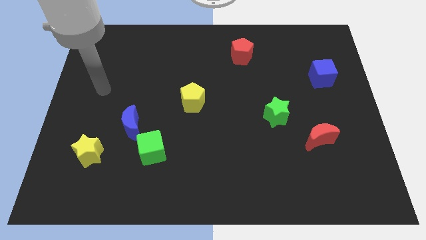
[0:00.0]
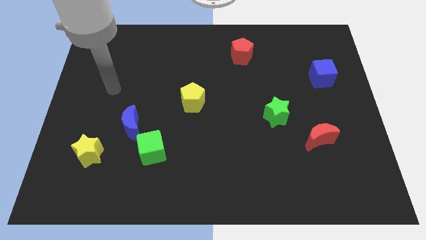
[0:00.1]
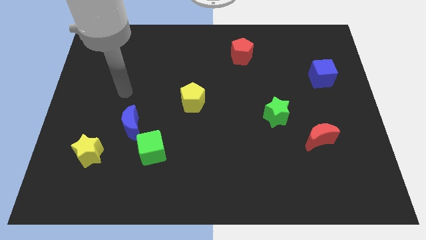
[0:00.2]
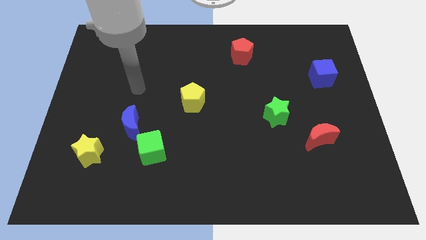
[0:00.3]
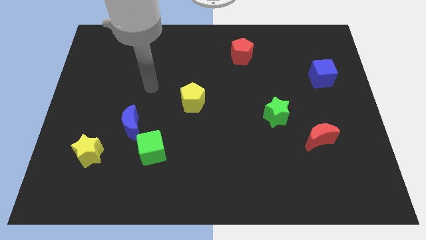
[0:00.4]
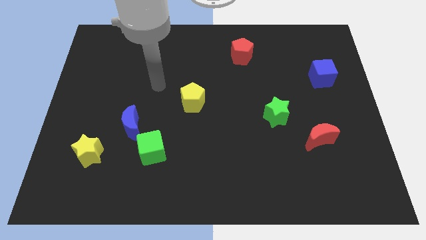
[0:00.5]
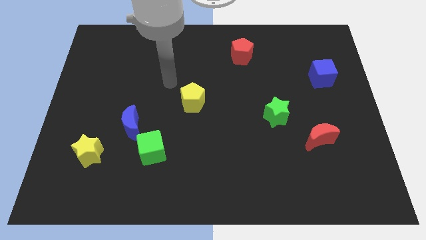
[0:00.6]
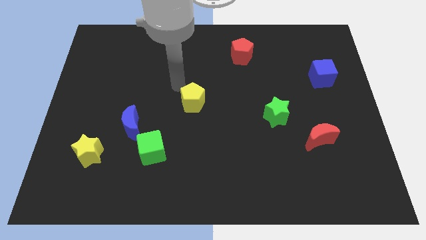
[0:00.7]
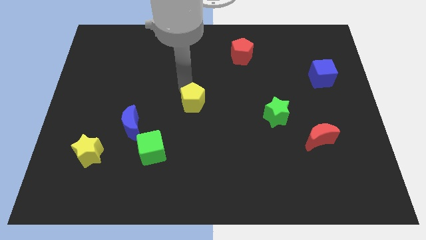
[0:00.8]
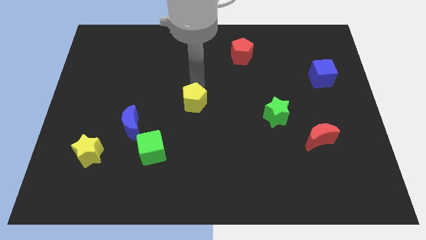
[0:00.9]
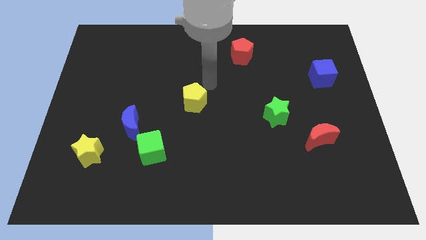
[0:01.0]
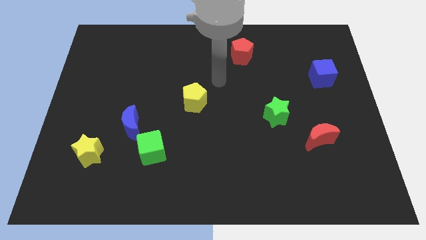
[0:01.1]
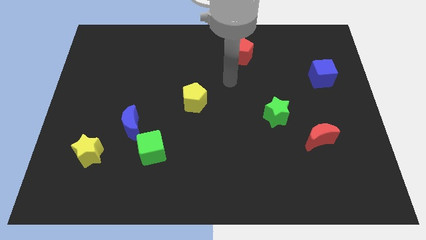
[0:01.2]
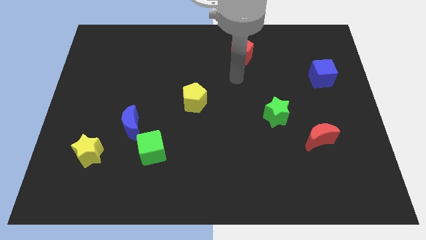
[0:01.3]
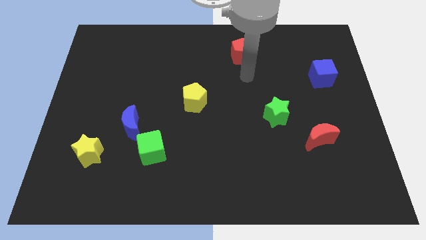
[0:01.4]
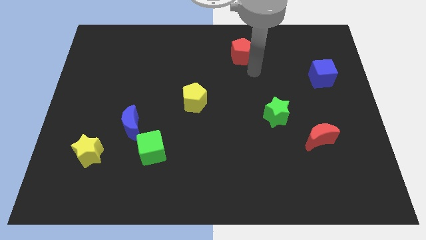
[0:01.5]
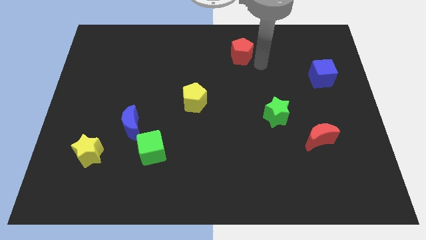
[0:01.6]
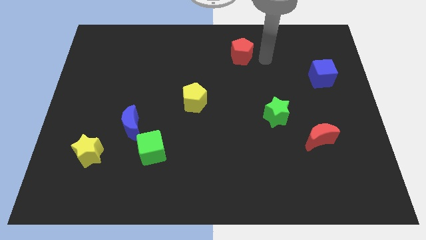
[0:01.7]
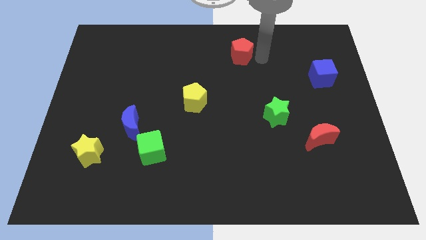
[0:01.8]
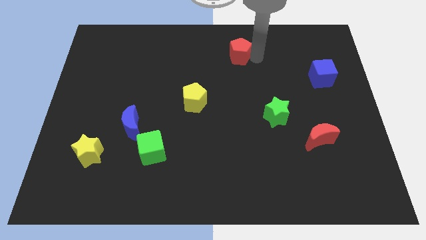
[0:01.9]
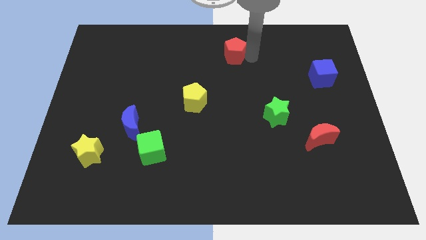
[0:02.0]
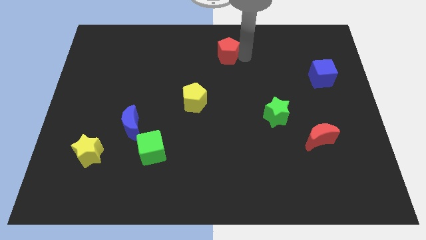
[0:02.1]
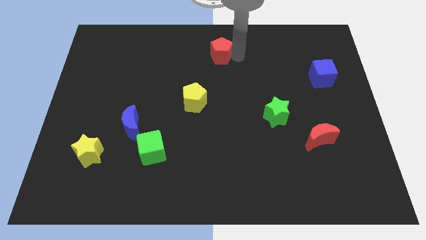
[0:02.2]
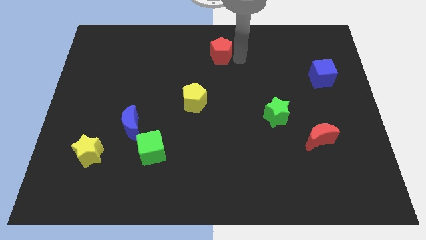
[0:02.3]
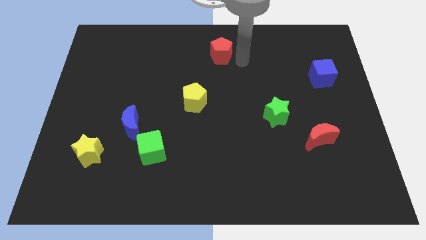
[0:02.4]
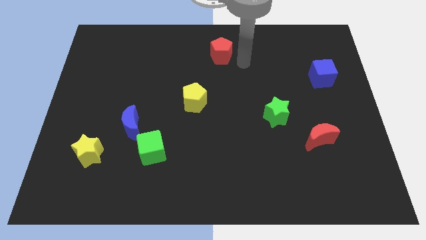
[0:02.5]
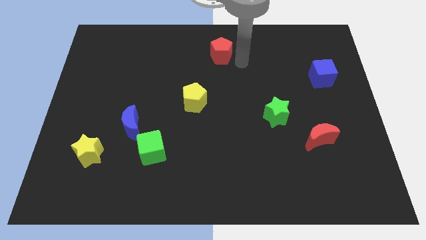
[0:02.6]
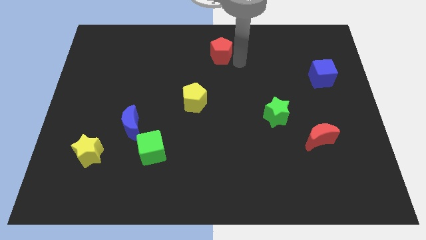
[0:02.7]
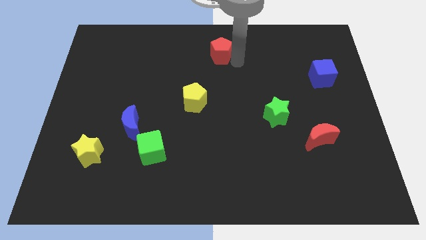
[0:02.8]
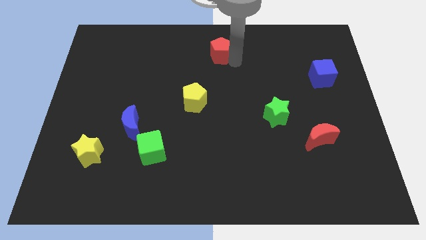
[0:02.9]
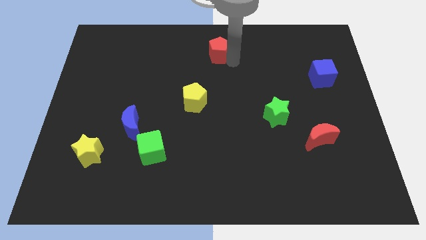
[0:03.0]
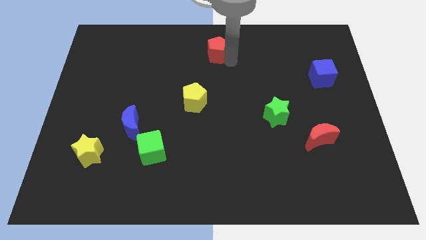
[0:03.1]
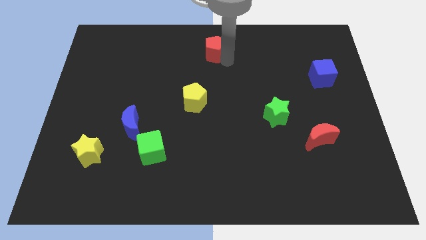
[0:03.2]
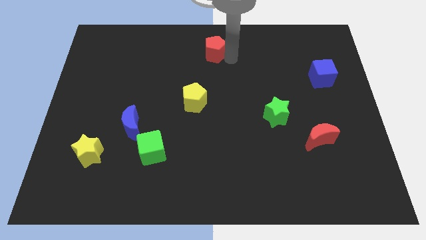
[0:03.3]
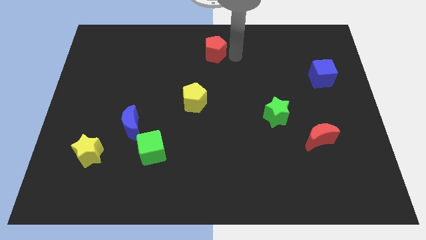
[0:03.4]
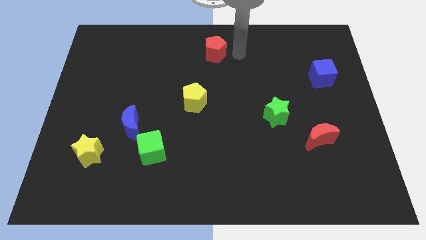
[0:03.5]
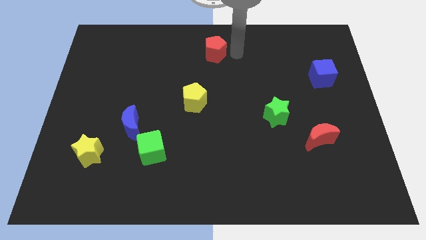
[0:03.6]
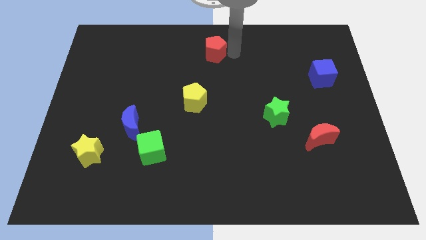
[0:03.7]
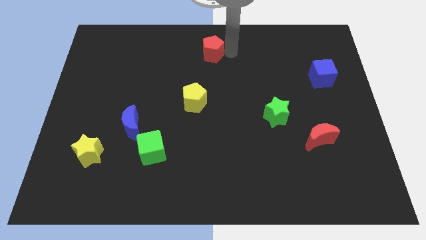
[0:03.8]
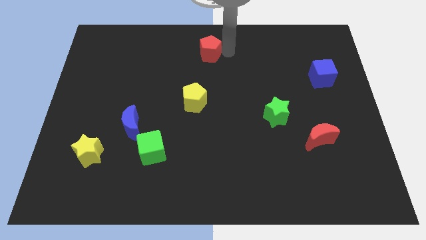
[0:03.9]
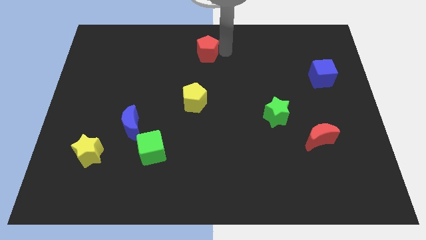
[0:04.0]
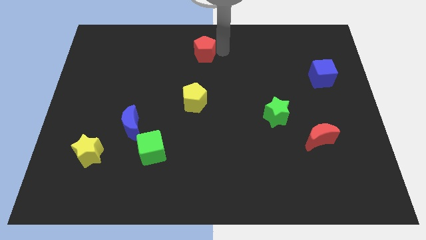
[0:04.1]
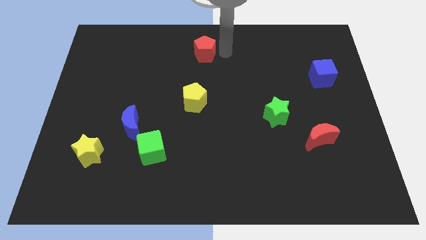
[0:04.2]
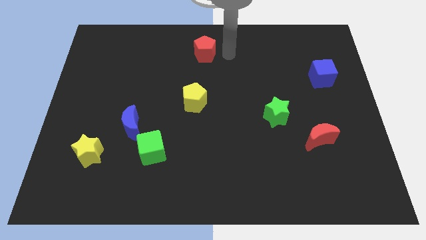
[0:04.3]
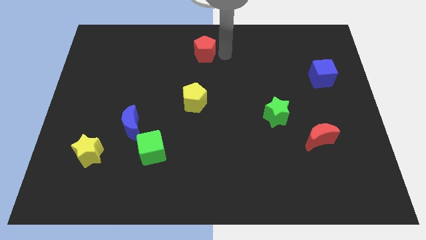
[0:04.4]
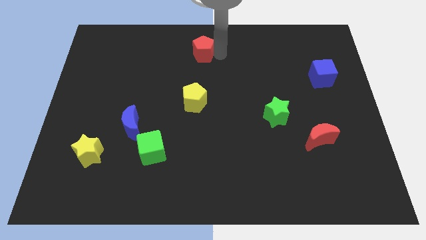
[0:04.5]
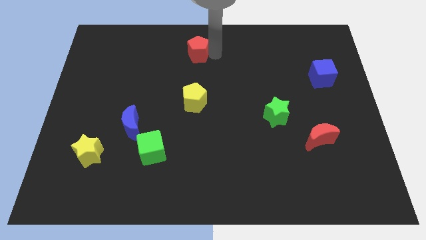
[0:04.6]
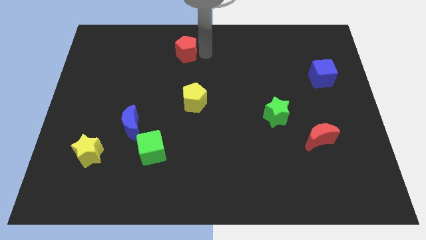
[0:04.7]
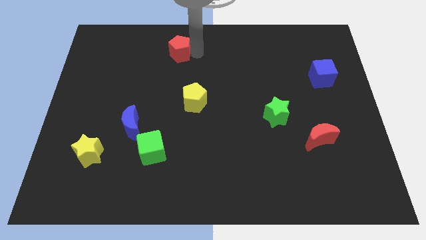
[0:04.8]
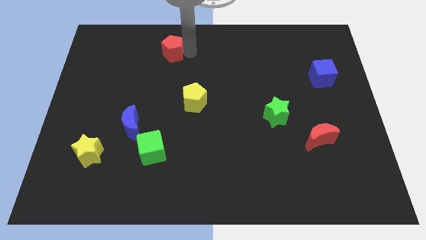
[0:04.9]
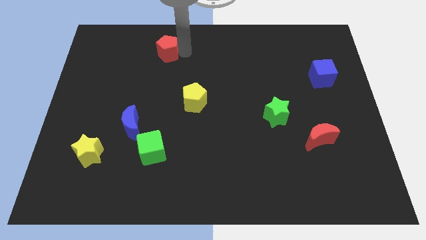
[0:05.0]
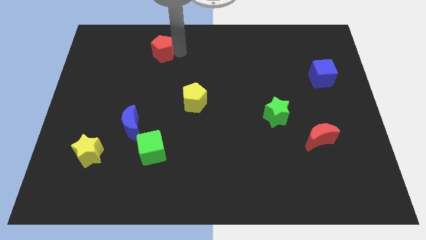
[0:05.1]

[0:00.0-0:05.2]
push the red pentagon left

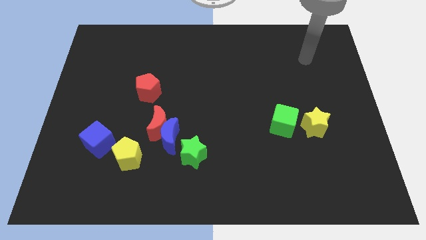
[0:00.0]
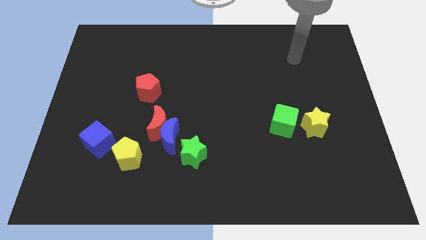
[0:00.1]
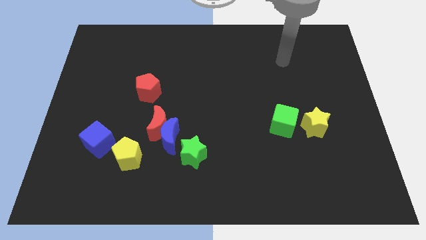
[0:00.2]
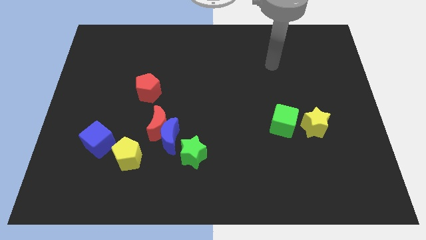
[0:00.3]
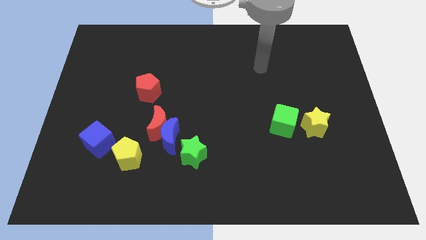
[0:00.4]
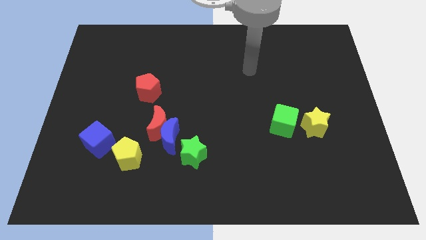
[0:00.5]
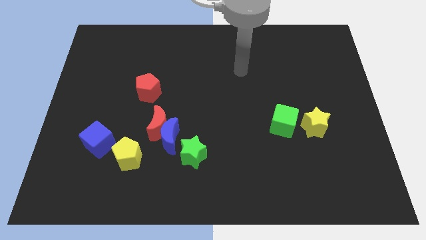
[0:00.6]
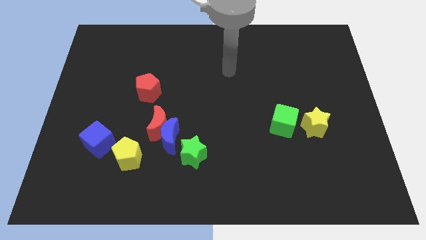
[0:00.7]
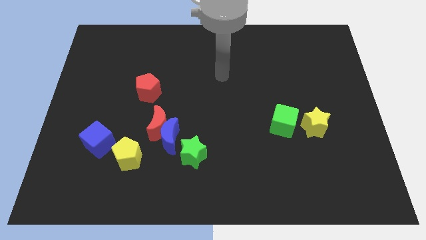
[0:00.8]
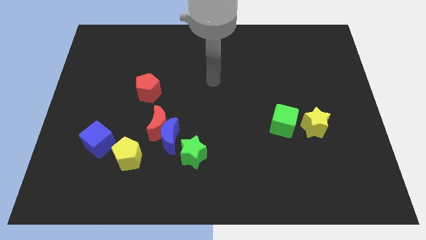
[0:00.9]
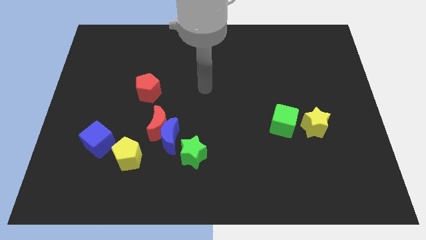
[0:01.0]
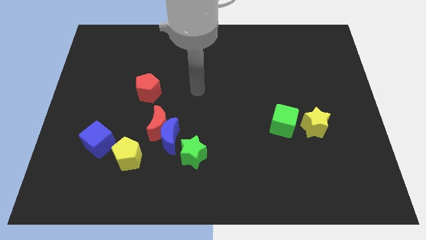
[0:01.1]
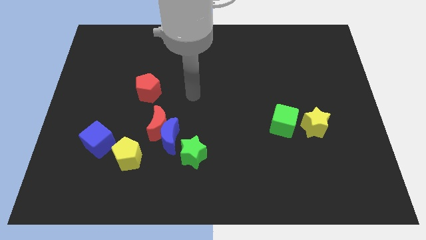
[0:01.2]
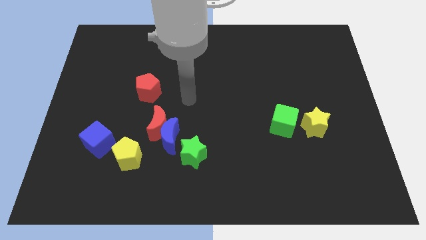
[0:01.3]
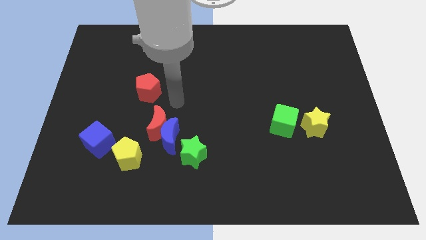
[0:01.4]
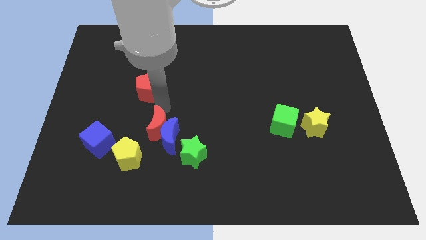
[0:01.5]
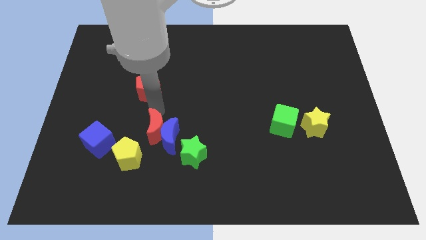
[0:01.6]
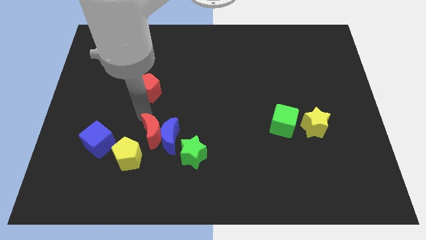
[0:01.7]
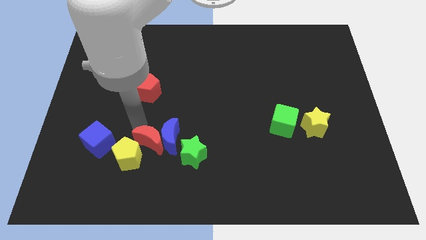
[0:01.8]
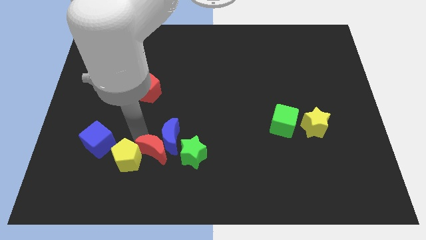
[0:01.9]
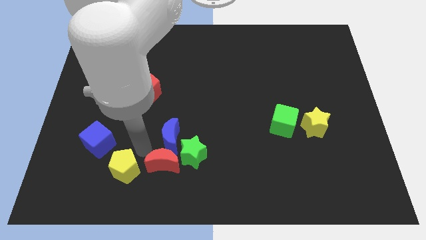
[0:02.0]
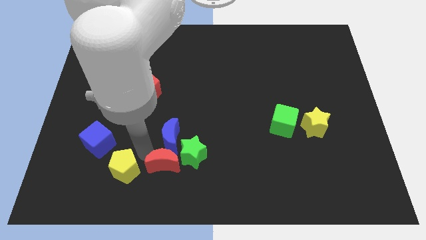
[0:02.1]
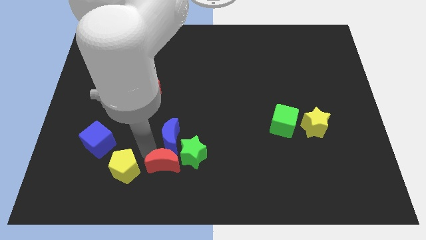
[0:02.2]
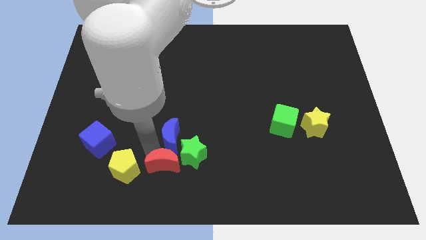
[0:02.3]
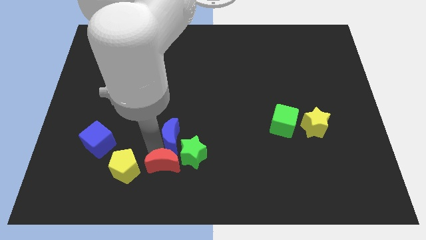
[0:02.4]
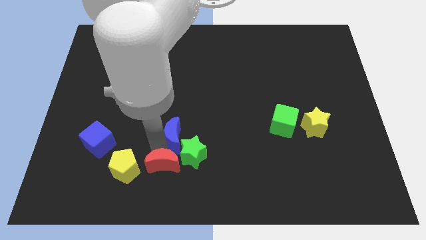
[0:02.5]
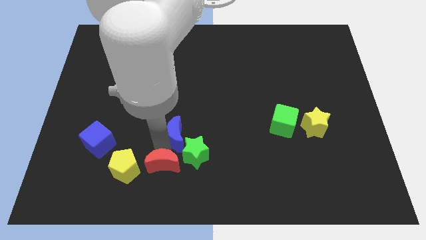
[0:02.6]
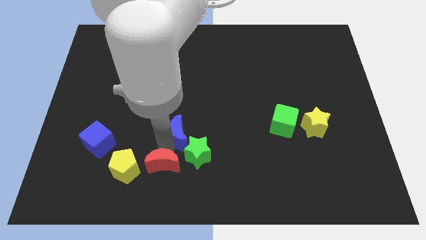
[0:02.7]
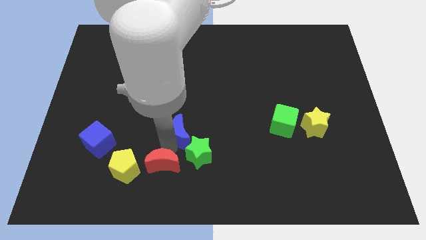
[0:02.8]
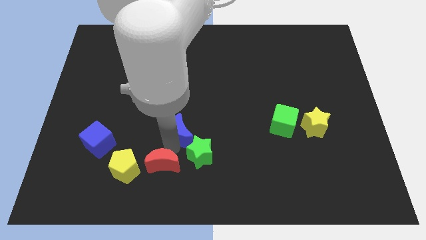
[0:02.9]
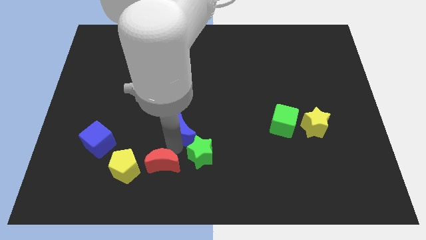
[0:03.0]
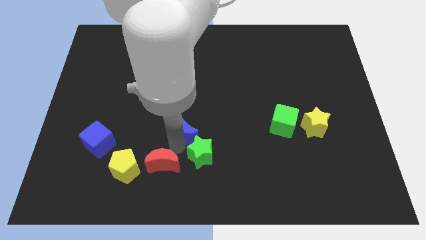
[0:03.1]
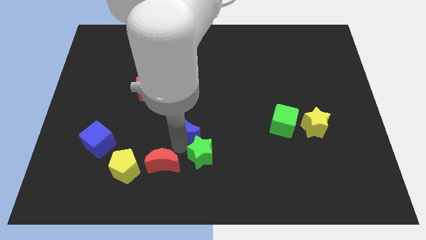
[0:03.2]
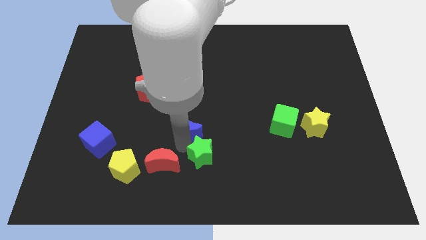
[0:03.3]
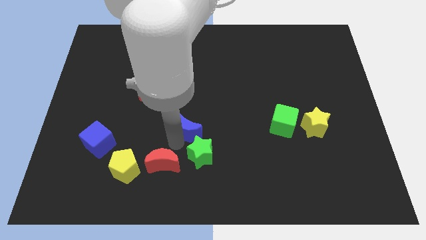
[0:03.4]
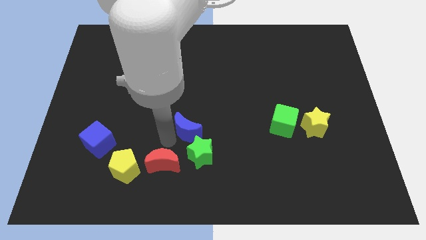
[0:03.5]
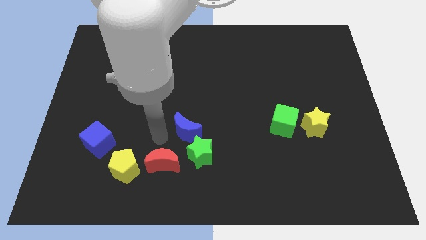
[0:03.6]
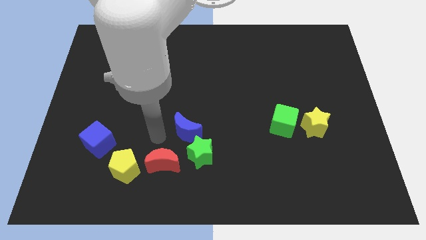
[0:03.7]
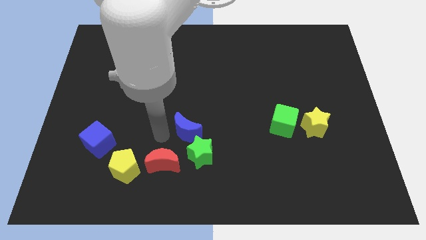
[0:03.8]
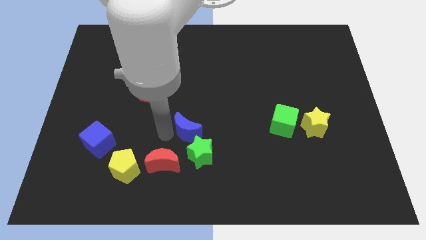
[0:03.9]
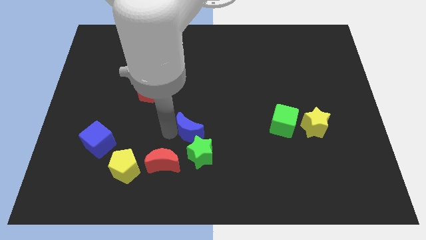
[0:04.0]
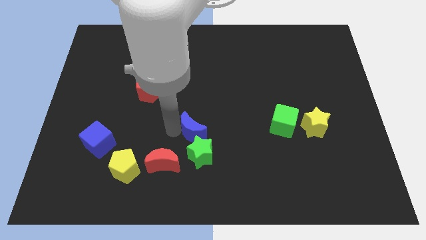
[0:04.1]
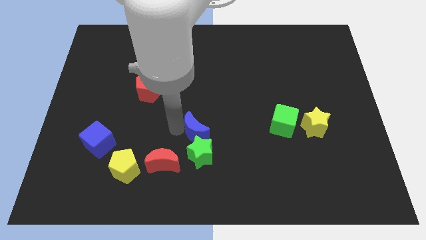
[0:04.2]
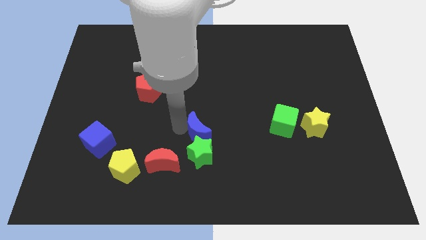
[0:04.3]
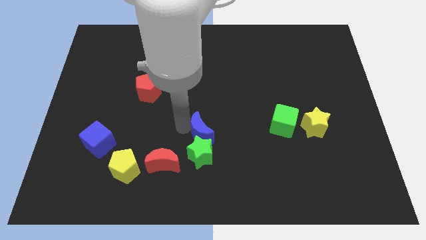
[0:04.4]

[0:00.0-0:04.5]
push the blue moon a bit to the right
